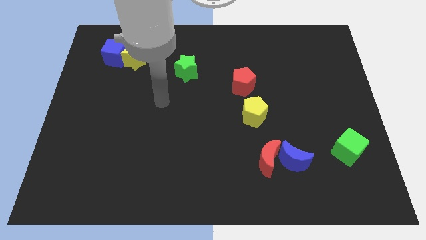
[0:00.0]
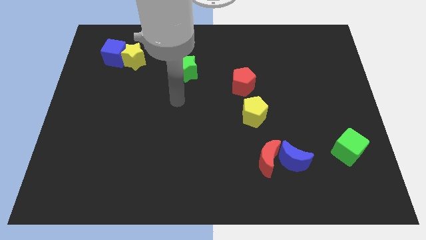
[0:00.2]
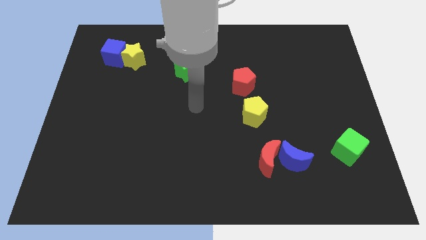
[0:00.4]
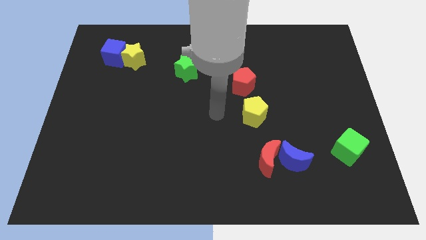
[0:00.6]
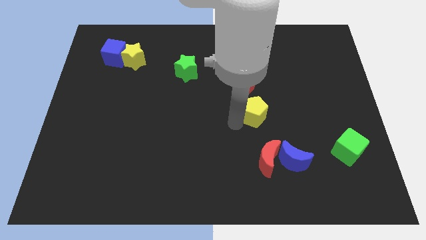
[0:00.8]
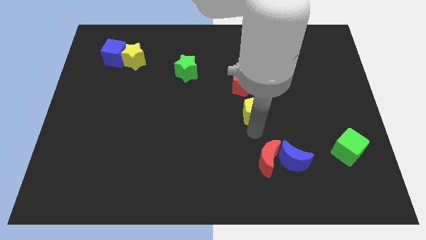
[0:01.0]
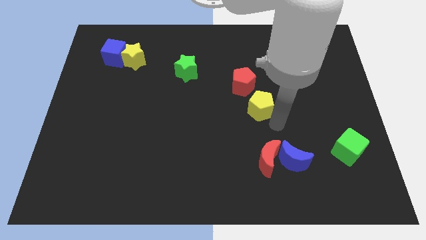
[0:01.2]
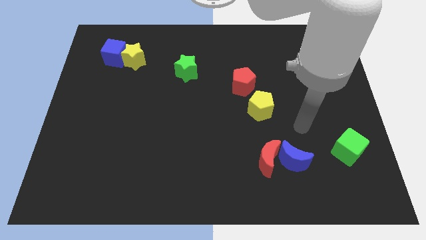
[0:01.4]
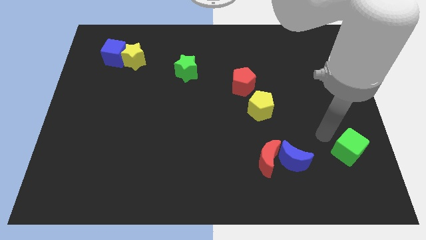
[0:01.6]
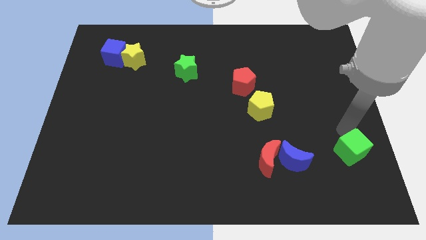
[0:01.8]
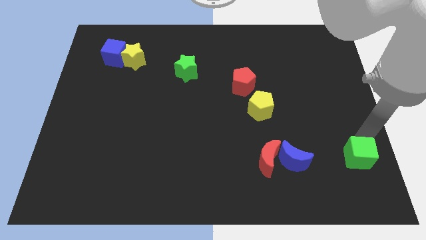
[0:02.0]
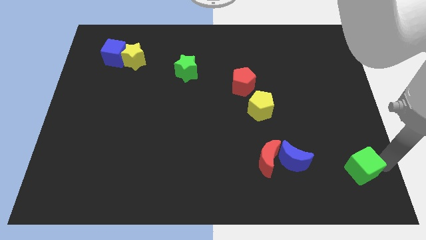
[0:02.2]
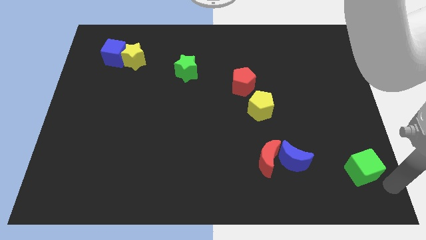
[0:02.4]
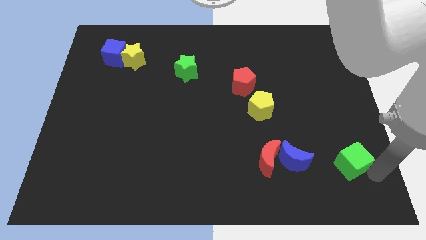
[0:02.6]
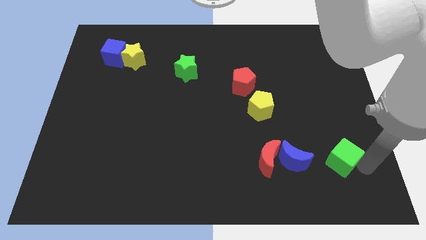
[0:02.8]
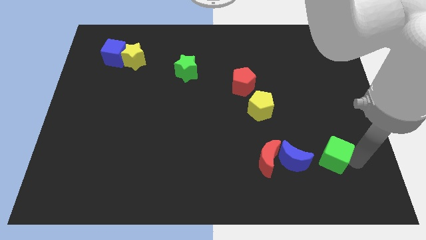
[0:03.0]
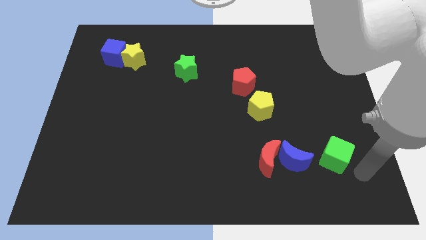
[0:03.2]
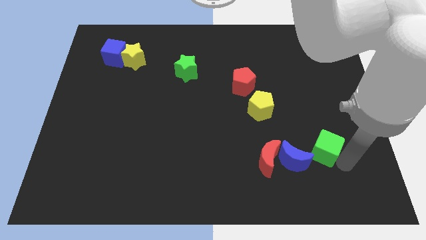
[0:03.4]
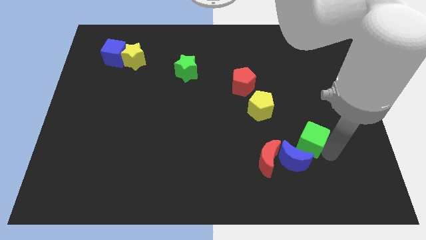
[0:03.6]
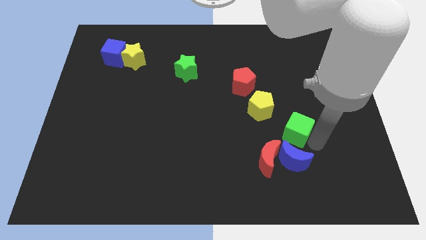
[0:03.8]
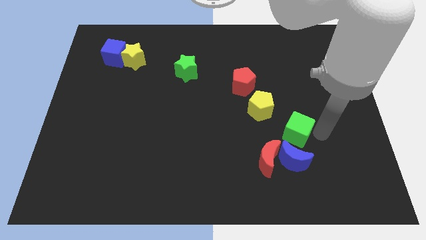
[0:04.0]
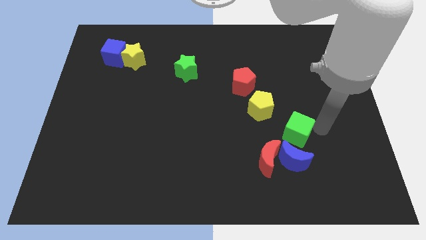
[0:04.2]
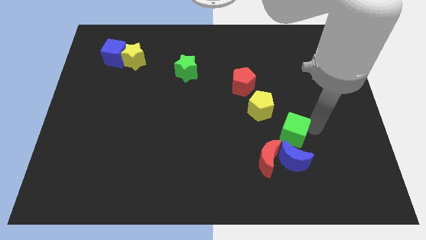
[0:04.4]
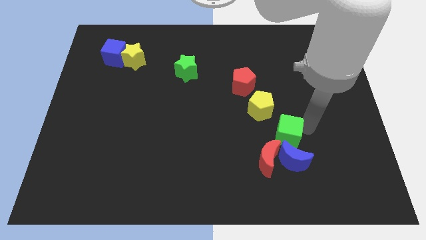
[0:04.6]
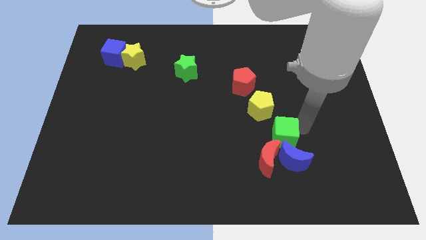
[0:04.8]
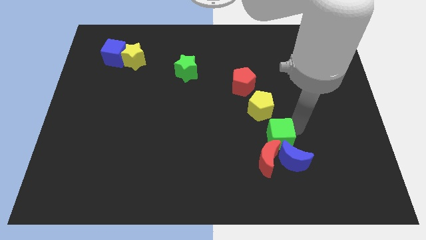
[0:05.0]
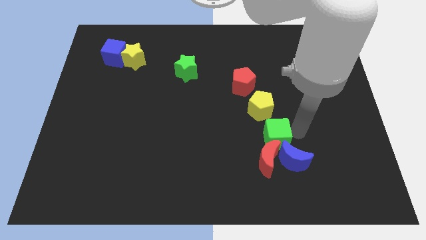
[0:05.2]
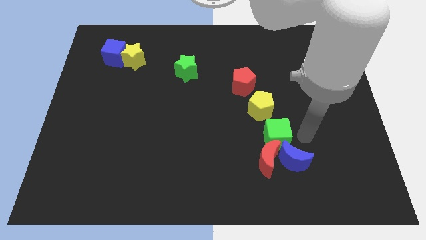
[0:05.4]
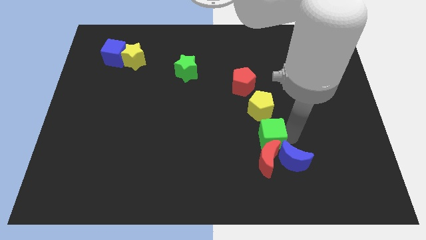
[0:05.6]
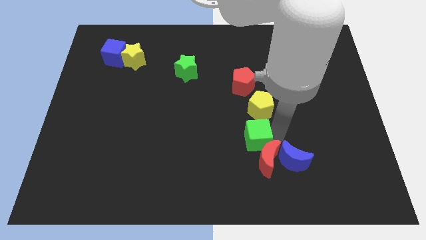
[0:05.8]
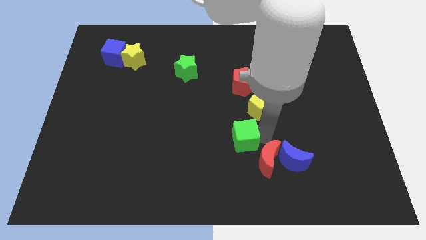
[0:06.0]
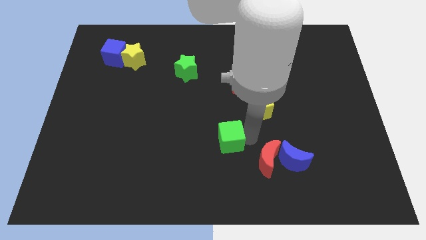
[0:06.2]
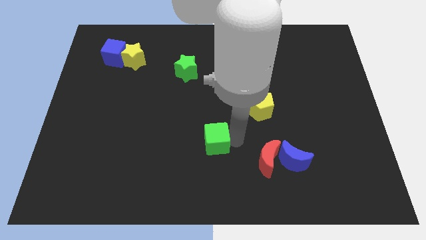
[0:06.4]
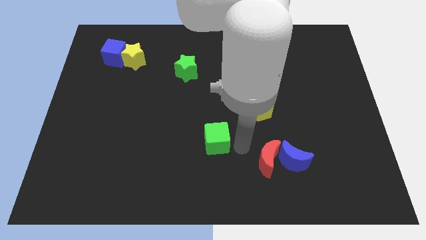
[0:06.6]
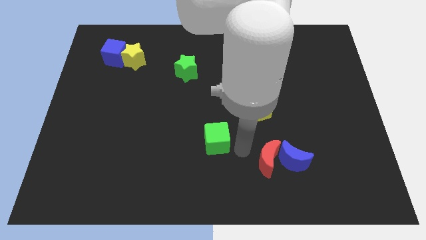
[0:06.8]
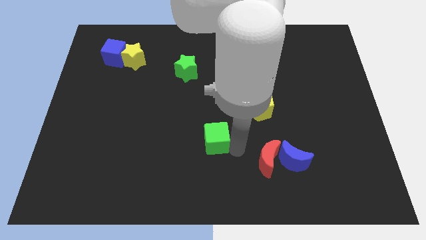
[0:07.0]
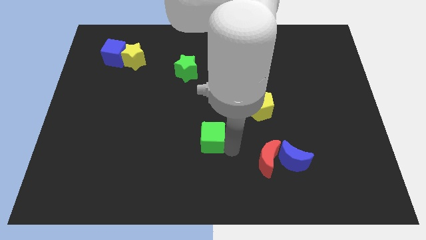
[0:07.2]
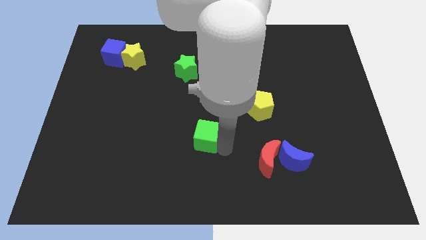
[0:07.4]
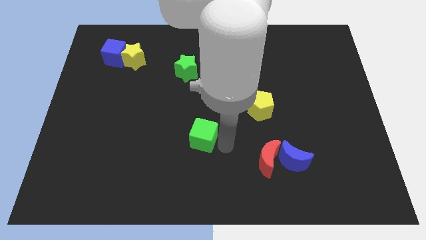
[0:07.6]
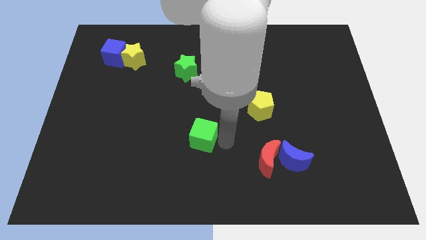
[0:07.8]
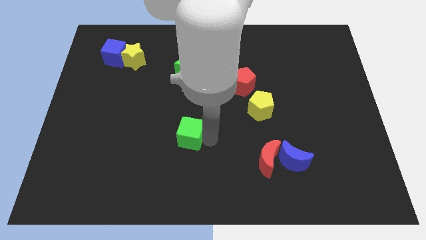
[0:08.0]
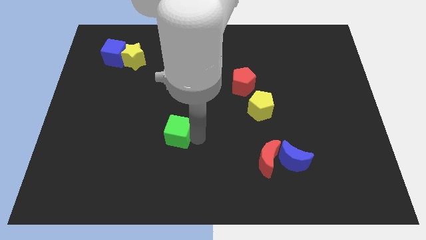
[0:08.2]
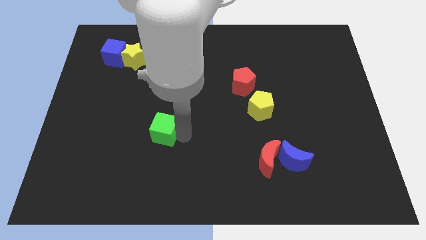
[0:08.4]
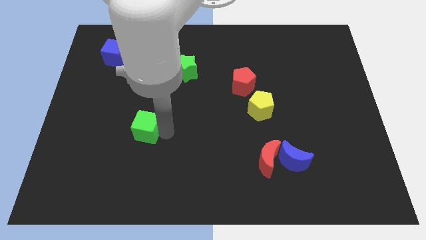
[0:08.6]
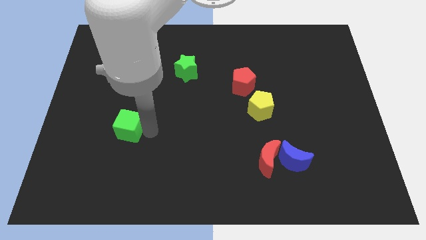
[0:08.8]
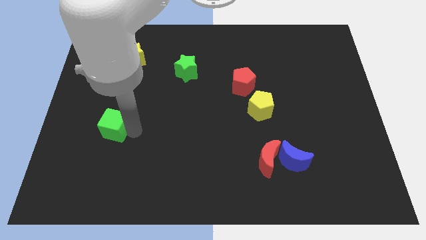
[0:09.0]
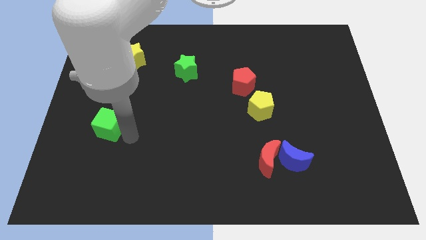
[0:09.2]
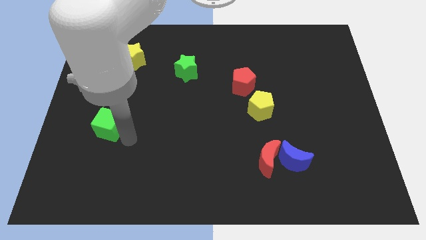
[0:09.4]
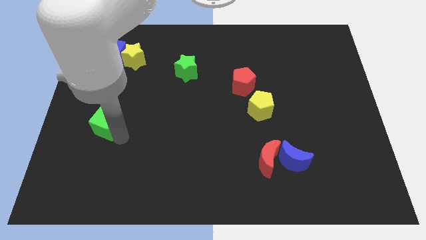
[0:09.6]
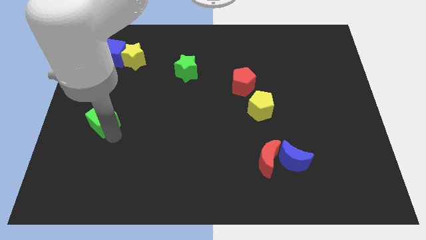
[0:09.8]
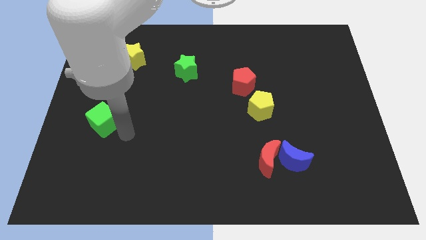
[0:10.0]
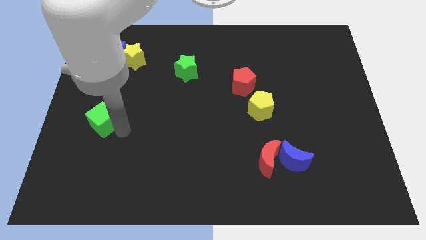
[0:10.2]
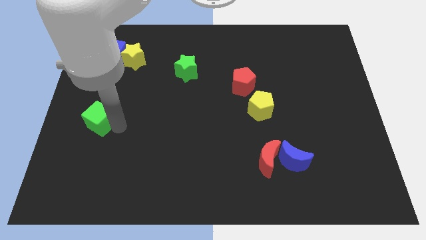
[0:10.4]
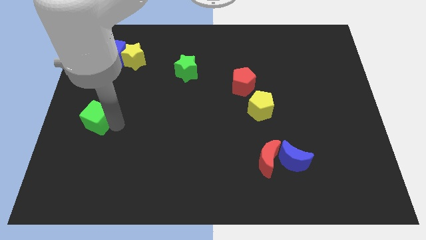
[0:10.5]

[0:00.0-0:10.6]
push the green cube to the center left

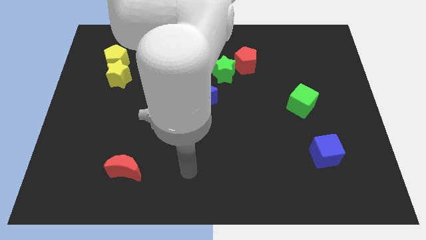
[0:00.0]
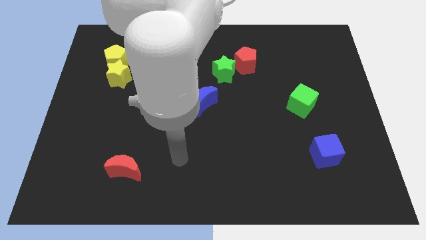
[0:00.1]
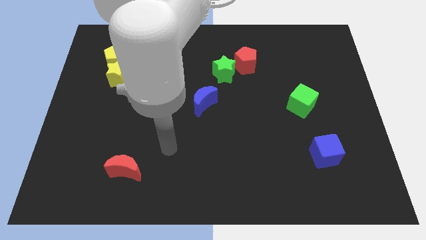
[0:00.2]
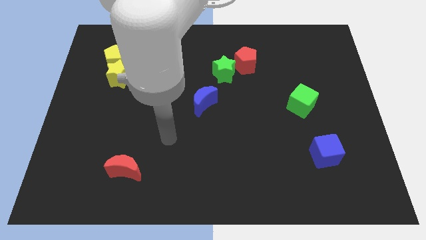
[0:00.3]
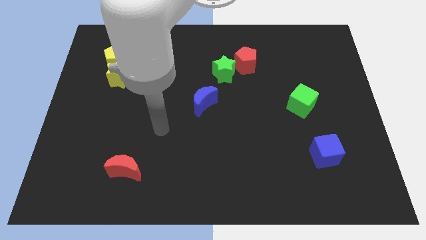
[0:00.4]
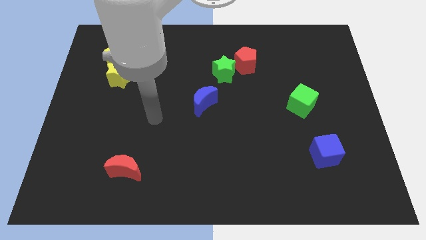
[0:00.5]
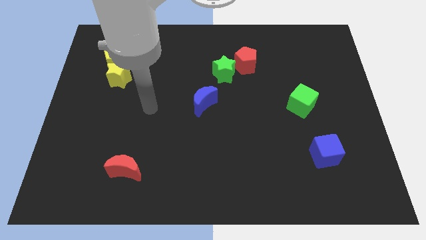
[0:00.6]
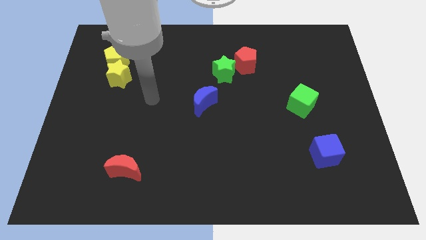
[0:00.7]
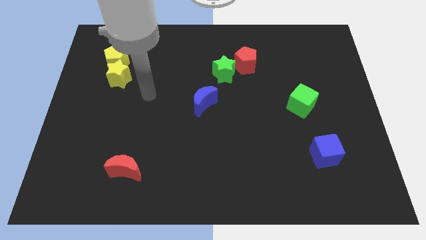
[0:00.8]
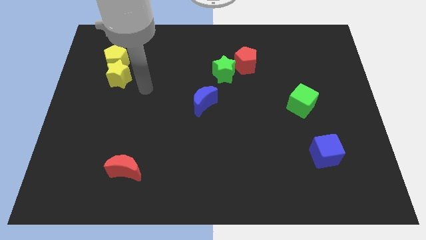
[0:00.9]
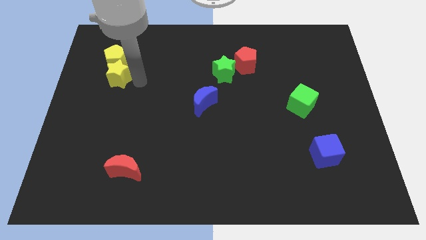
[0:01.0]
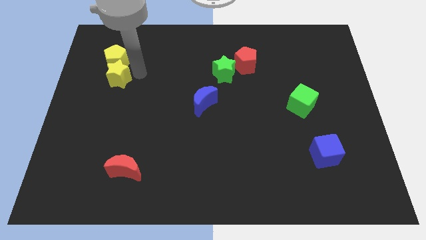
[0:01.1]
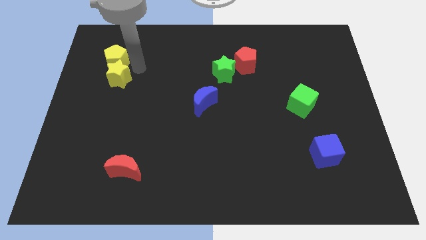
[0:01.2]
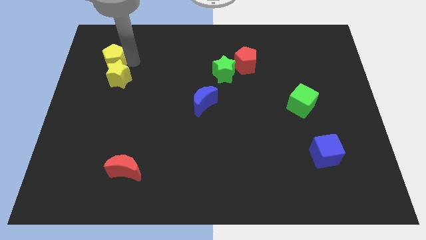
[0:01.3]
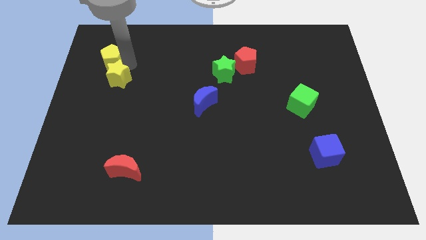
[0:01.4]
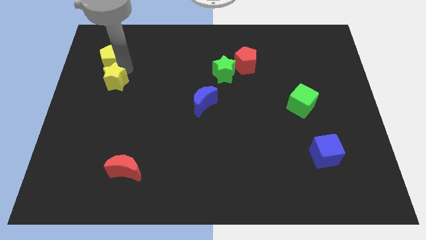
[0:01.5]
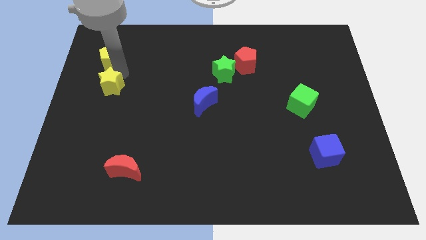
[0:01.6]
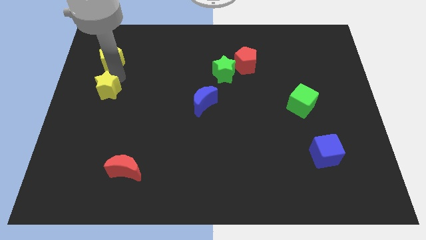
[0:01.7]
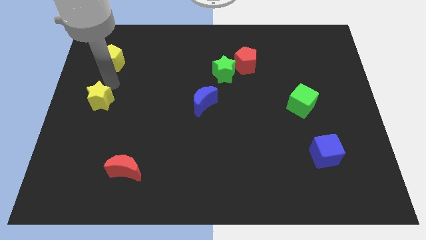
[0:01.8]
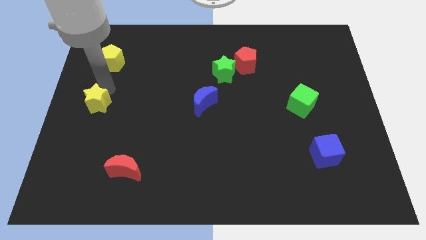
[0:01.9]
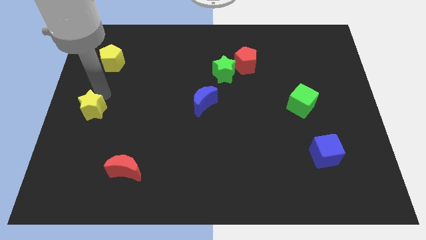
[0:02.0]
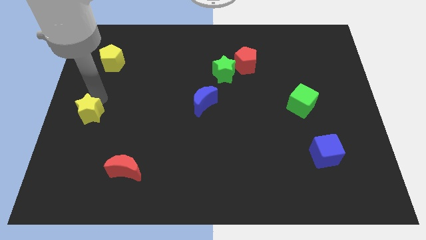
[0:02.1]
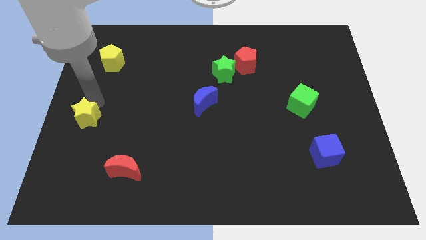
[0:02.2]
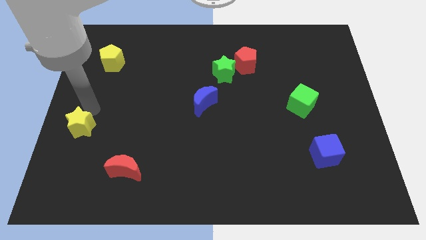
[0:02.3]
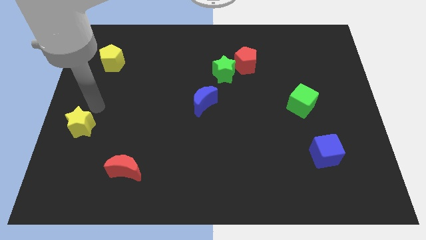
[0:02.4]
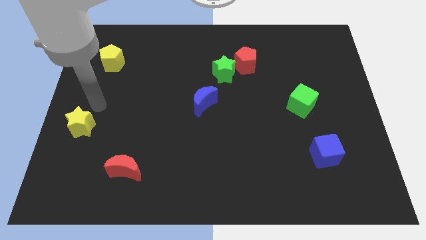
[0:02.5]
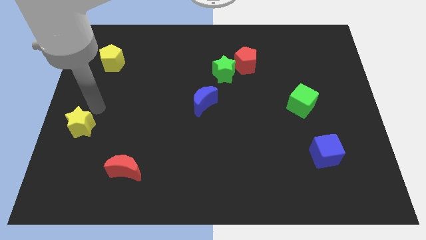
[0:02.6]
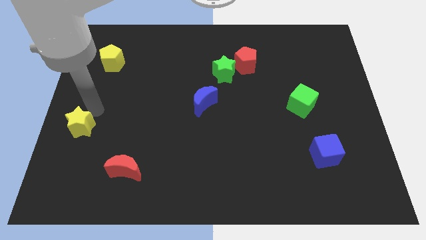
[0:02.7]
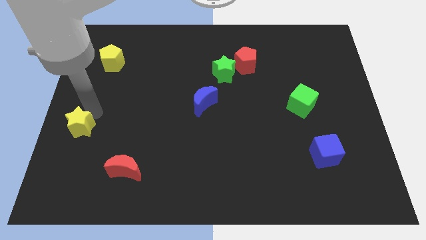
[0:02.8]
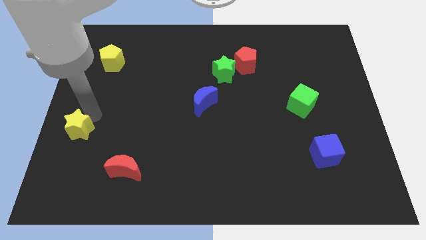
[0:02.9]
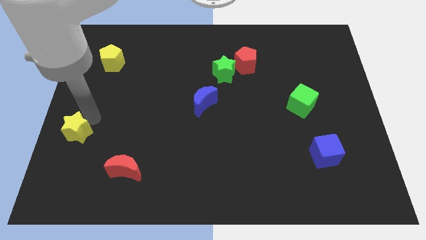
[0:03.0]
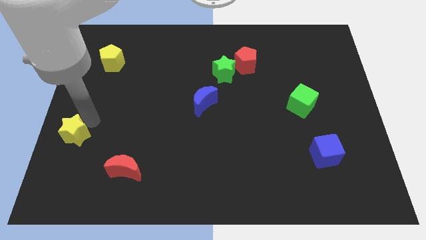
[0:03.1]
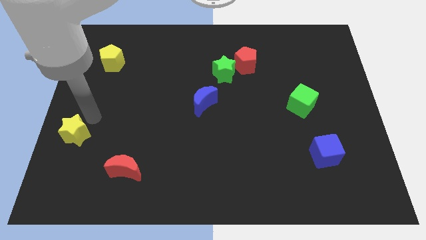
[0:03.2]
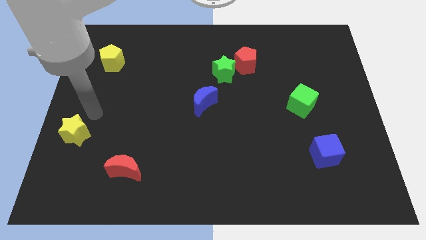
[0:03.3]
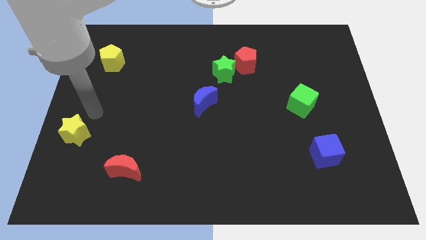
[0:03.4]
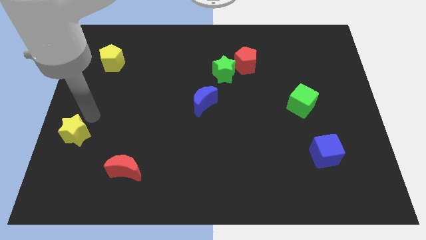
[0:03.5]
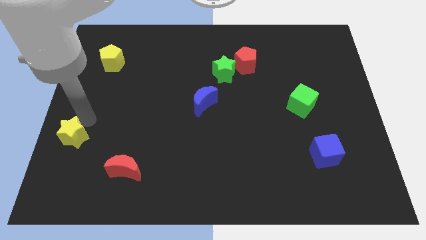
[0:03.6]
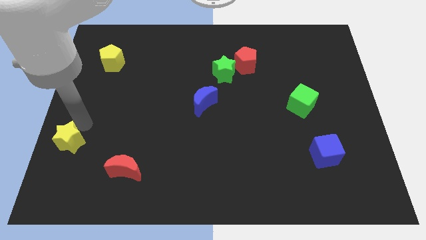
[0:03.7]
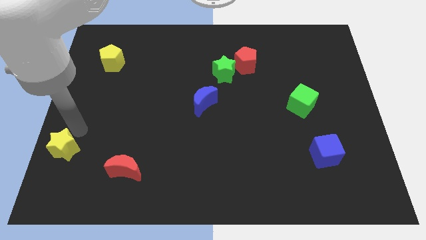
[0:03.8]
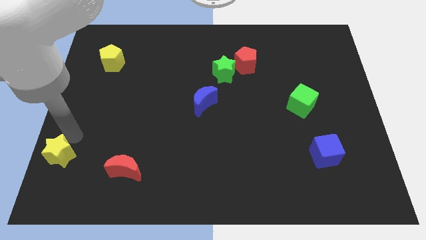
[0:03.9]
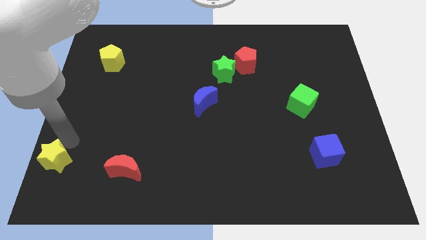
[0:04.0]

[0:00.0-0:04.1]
slide the yellow star to the bottom left of the board
